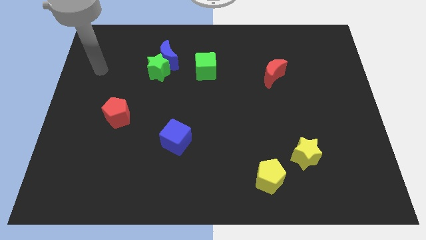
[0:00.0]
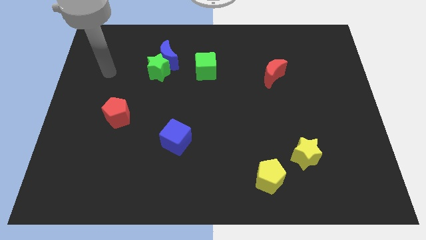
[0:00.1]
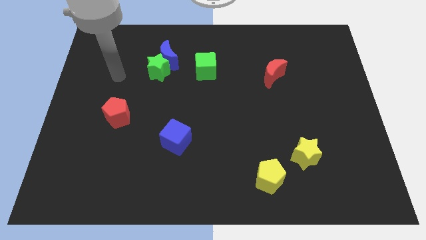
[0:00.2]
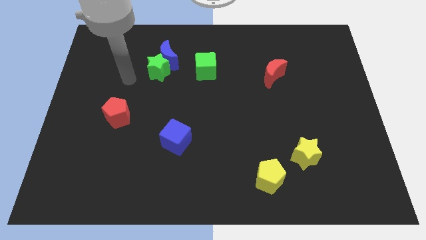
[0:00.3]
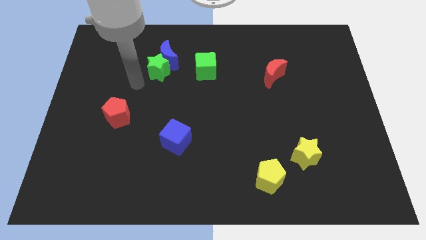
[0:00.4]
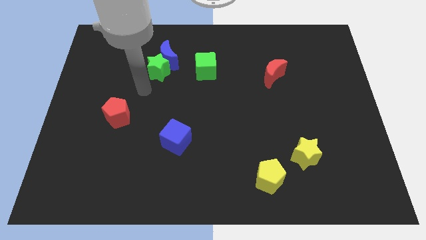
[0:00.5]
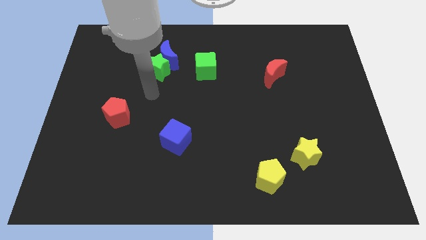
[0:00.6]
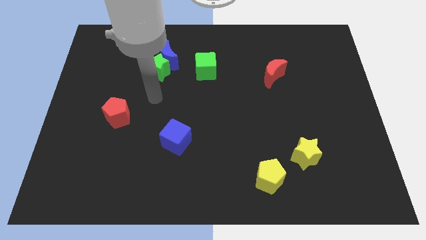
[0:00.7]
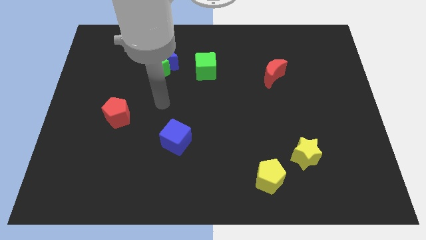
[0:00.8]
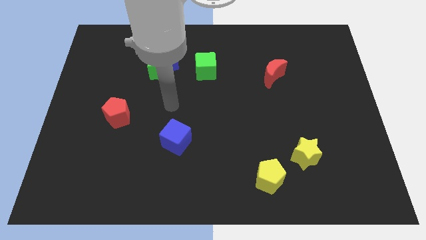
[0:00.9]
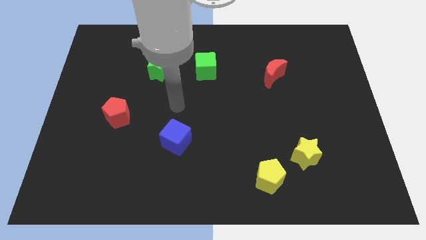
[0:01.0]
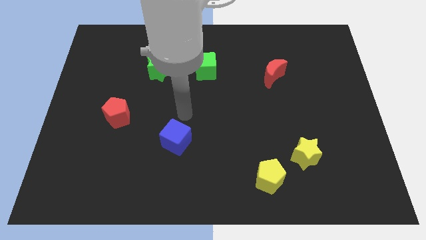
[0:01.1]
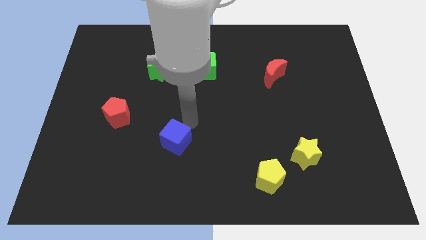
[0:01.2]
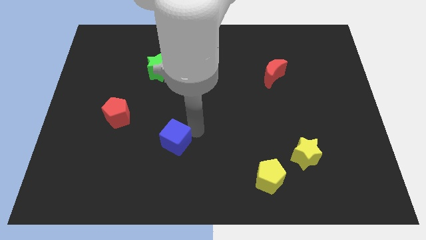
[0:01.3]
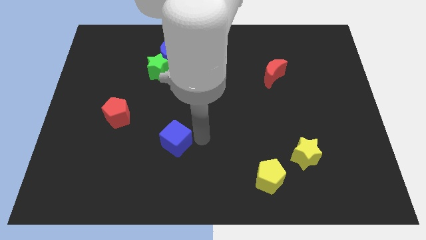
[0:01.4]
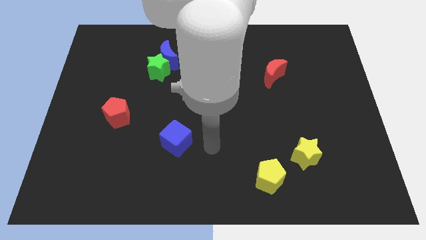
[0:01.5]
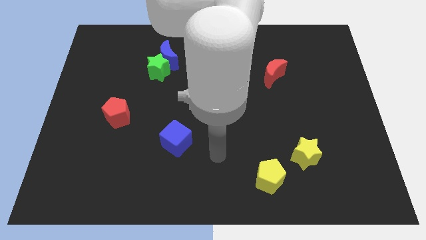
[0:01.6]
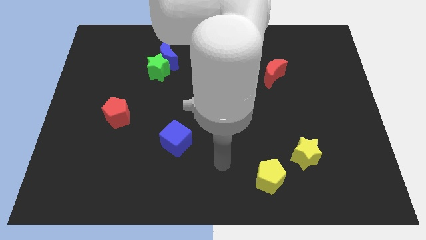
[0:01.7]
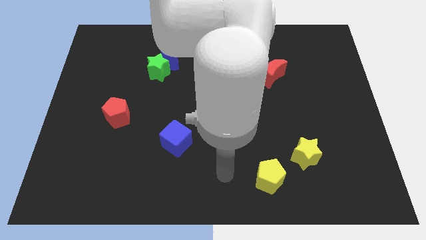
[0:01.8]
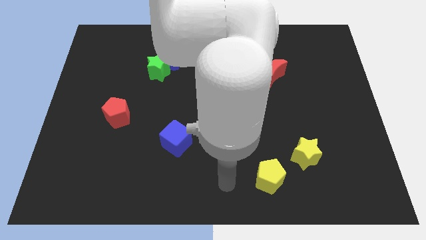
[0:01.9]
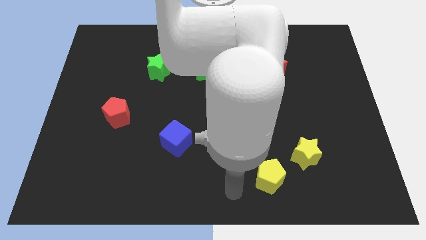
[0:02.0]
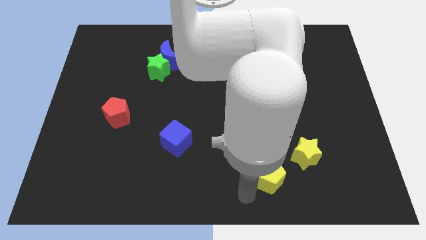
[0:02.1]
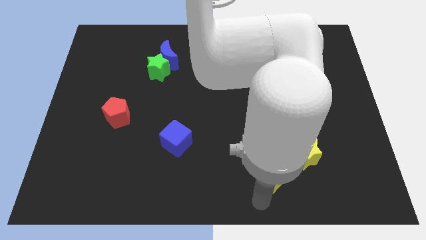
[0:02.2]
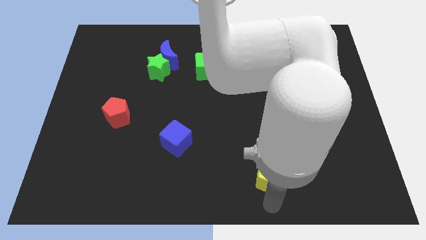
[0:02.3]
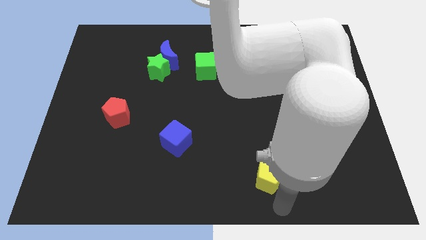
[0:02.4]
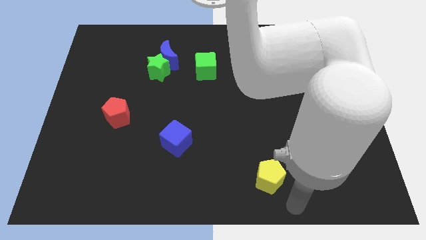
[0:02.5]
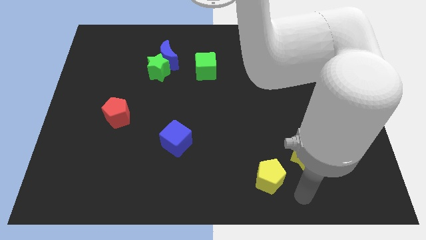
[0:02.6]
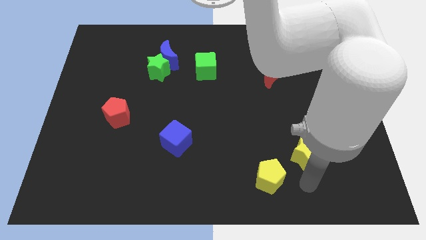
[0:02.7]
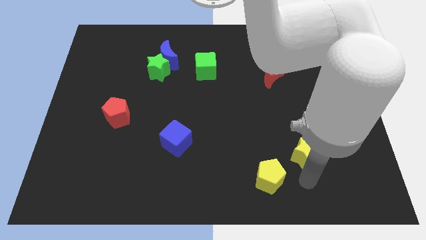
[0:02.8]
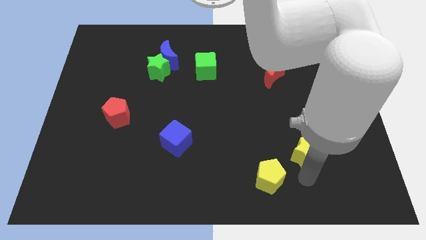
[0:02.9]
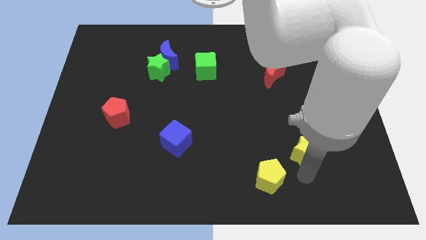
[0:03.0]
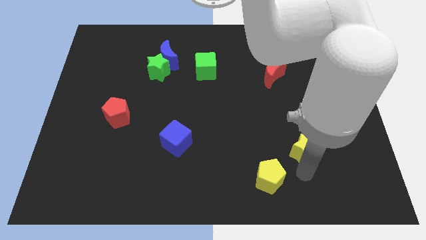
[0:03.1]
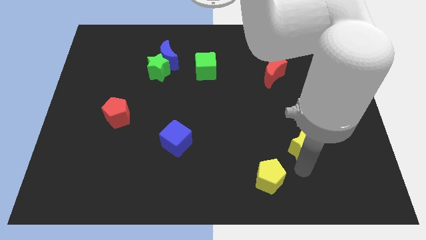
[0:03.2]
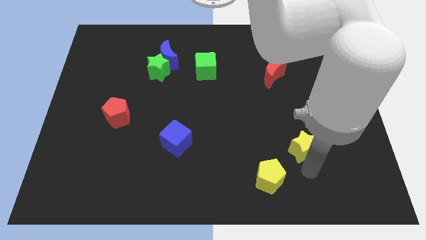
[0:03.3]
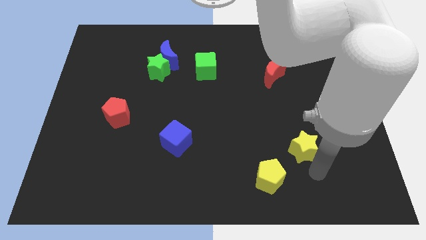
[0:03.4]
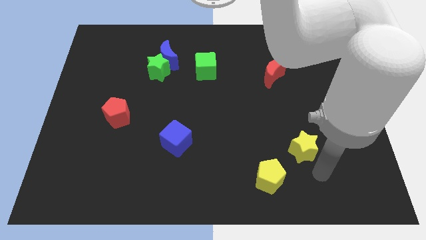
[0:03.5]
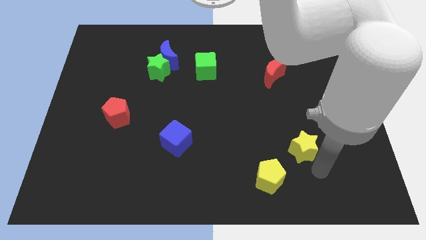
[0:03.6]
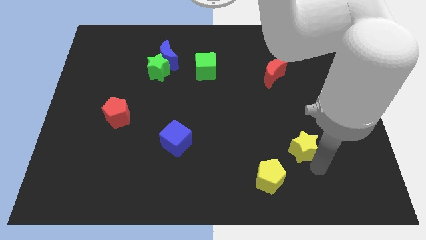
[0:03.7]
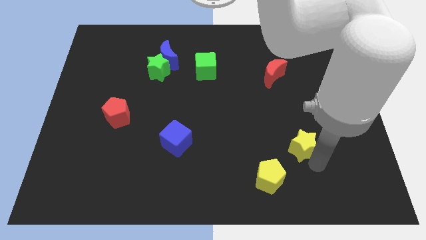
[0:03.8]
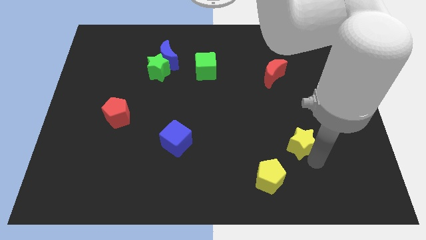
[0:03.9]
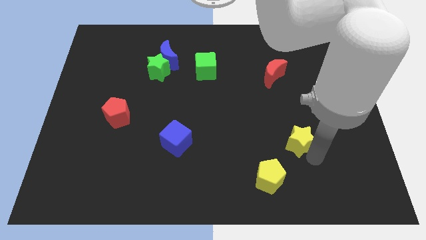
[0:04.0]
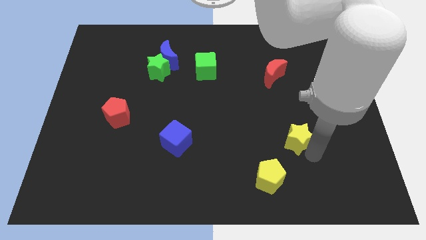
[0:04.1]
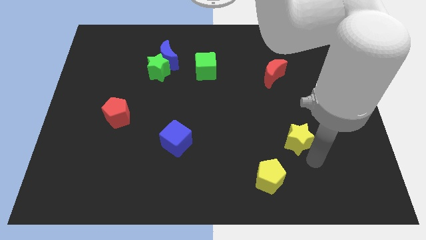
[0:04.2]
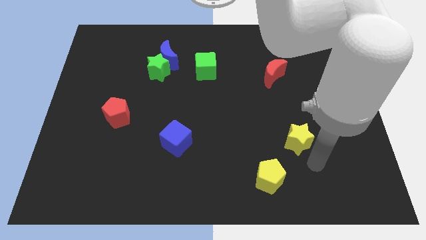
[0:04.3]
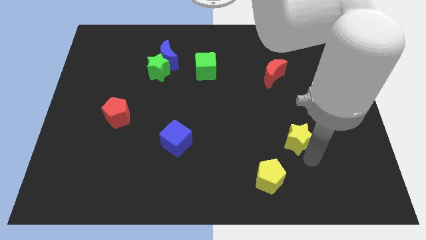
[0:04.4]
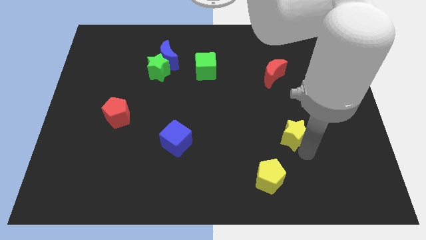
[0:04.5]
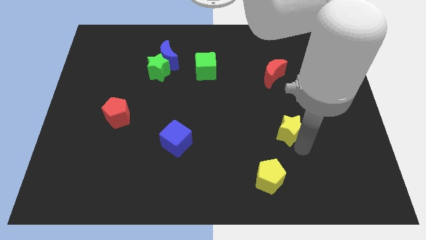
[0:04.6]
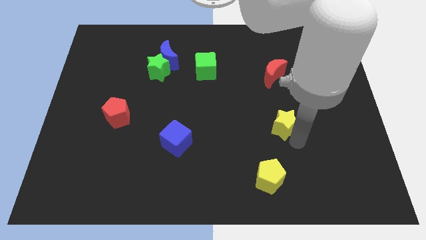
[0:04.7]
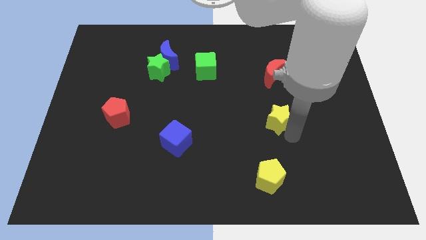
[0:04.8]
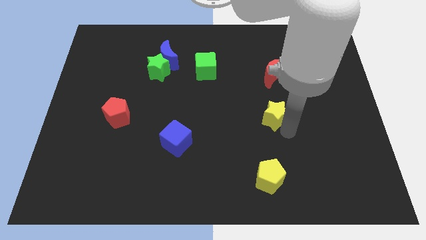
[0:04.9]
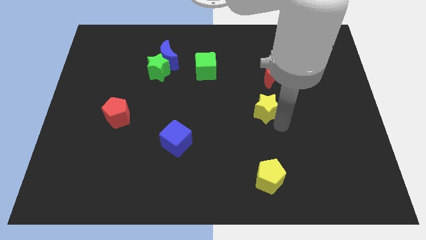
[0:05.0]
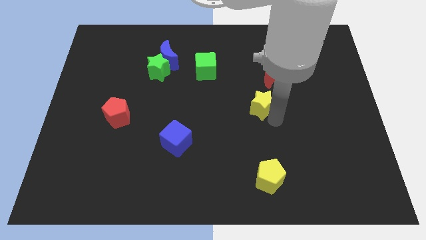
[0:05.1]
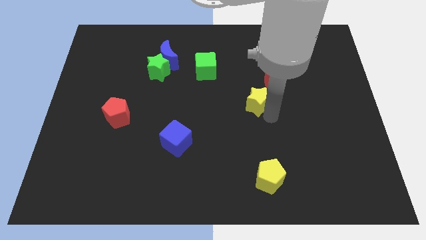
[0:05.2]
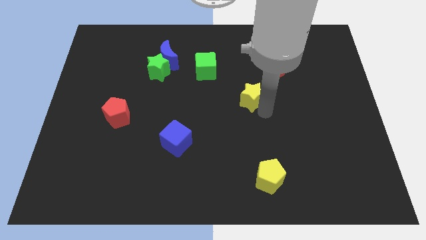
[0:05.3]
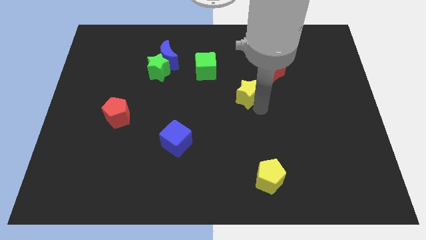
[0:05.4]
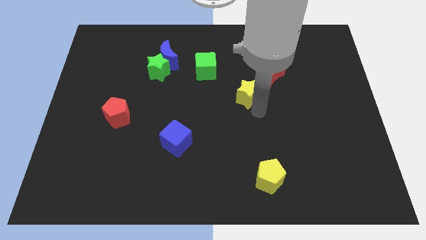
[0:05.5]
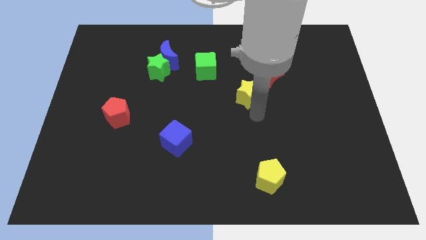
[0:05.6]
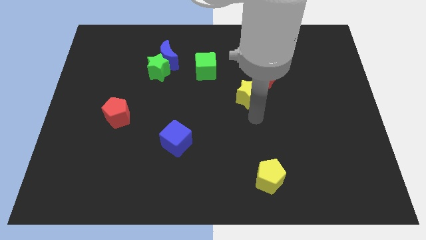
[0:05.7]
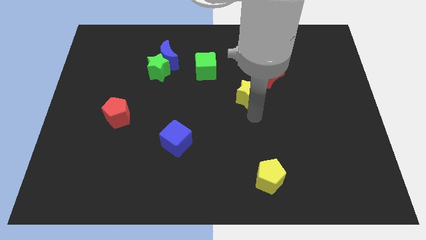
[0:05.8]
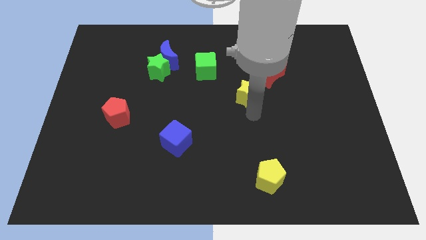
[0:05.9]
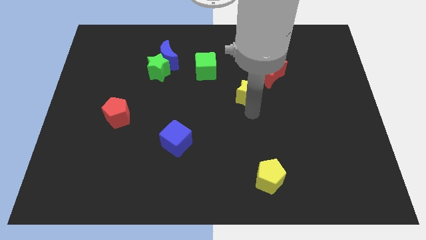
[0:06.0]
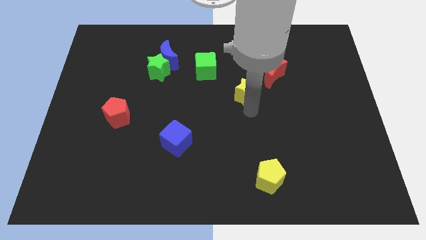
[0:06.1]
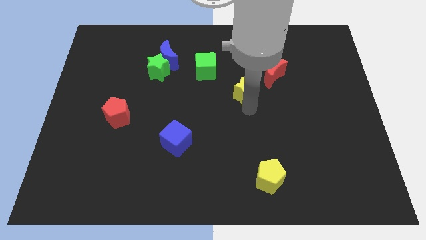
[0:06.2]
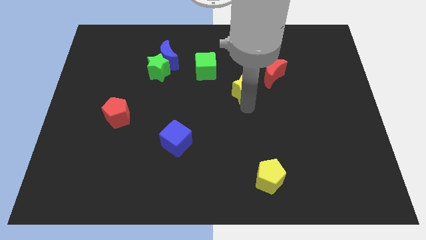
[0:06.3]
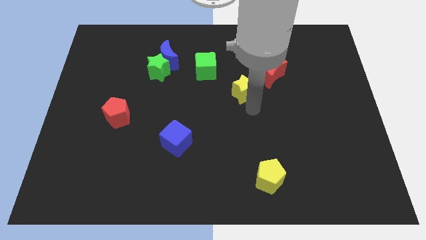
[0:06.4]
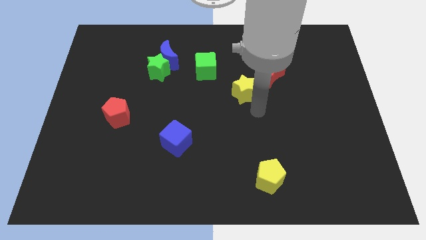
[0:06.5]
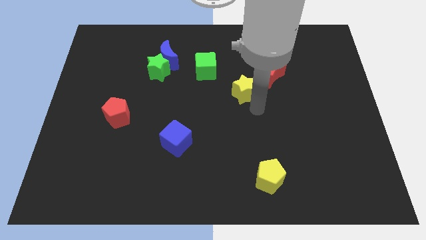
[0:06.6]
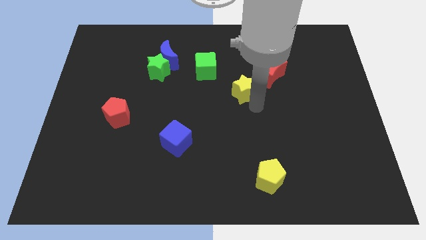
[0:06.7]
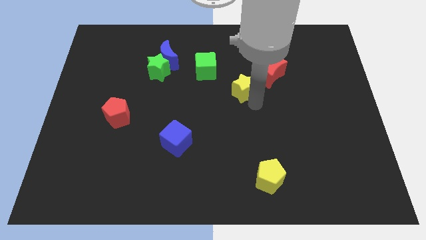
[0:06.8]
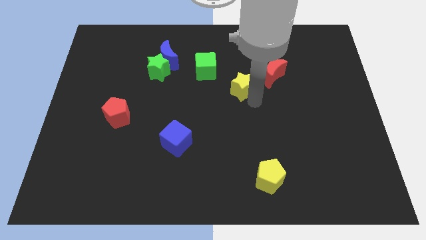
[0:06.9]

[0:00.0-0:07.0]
move the yellow star just left of the red moon

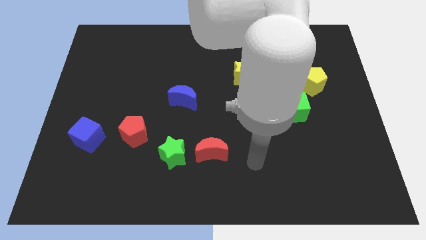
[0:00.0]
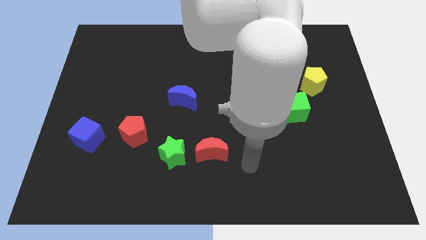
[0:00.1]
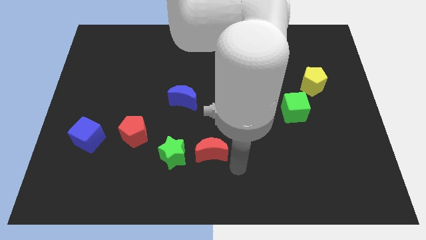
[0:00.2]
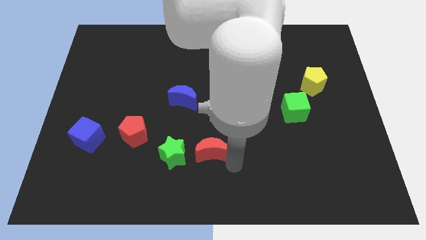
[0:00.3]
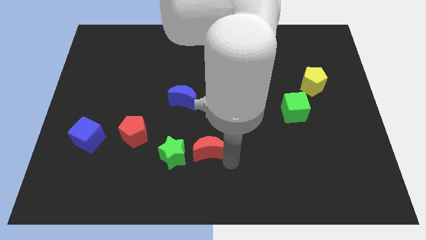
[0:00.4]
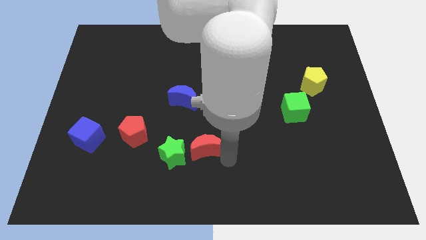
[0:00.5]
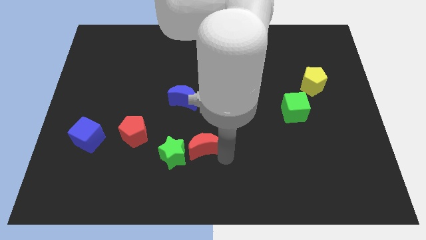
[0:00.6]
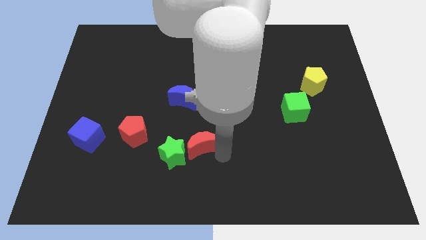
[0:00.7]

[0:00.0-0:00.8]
slide the red moon to the right side of the red pentagon
